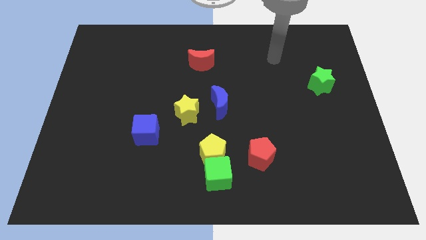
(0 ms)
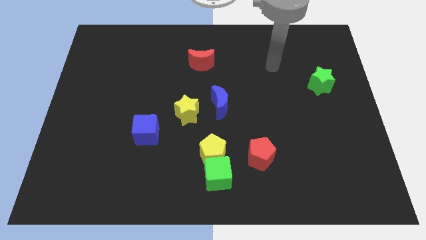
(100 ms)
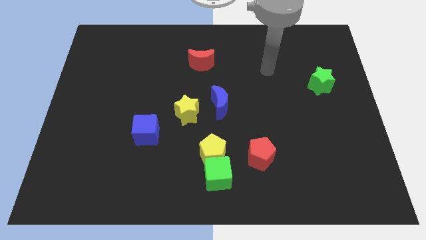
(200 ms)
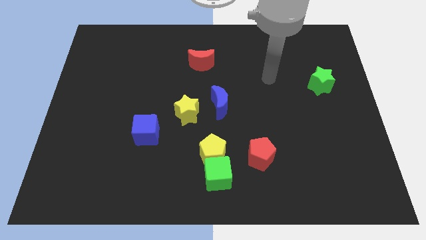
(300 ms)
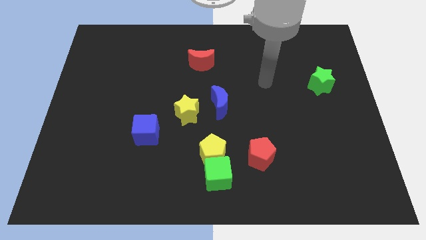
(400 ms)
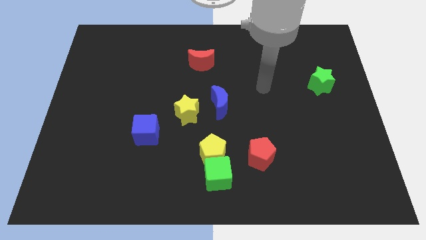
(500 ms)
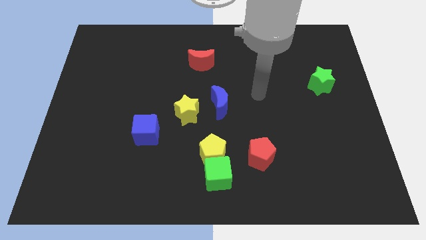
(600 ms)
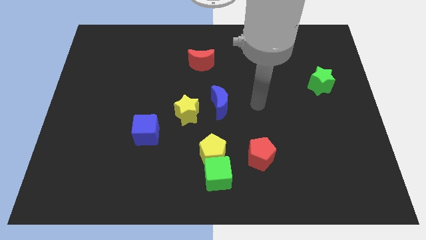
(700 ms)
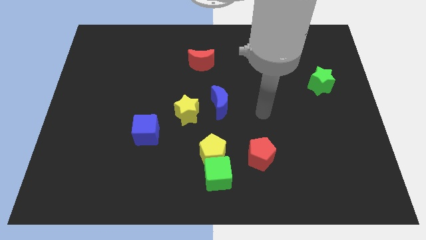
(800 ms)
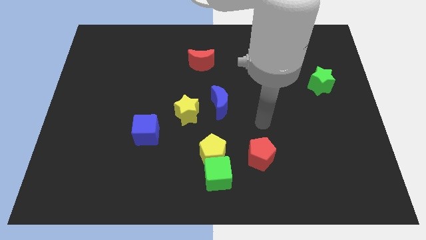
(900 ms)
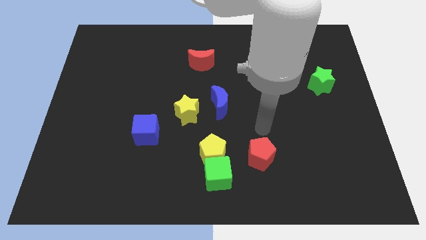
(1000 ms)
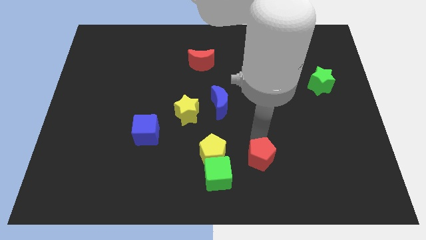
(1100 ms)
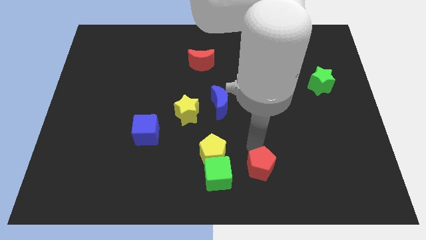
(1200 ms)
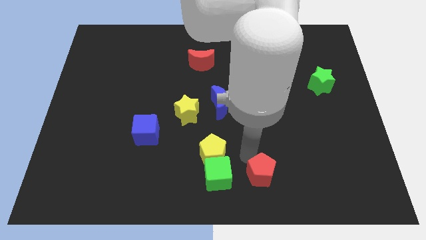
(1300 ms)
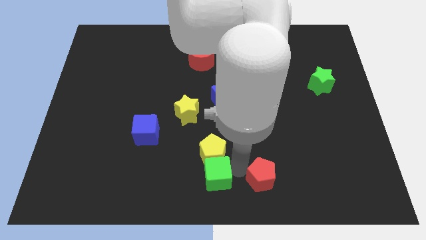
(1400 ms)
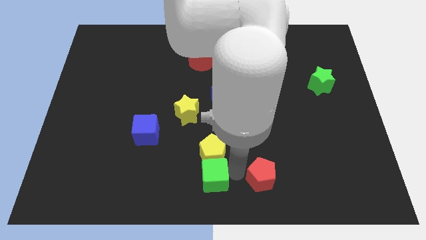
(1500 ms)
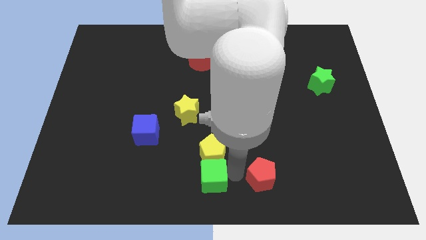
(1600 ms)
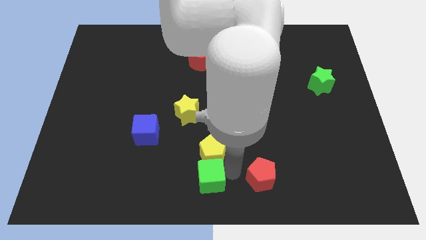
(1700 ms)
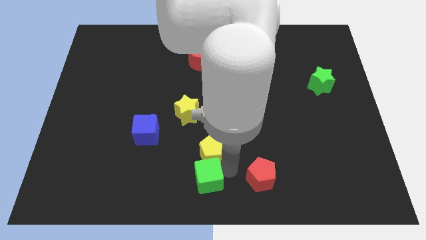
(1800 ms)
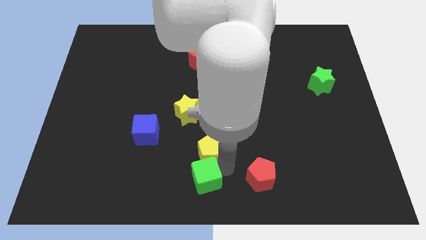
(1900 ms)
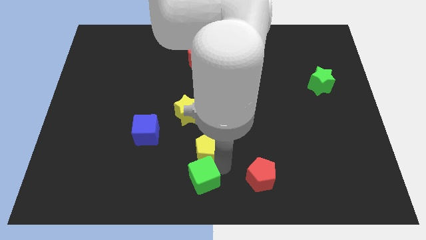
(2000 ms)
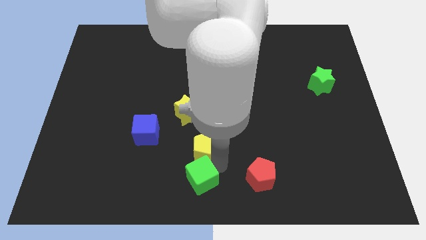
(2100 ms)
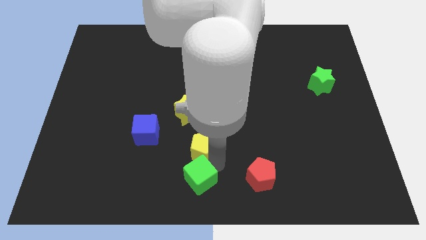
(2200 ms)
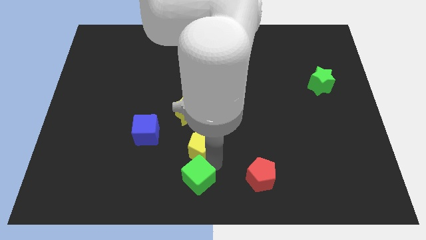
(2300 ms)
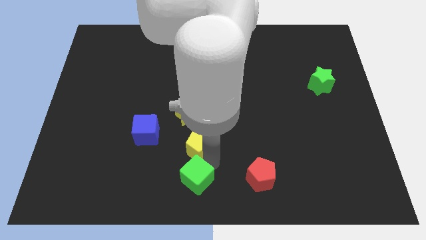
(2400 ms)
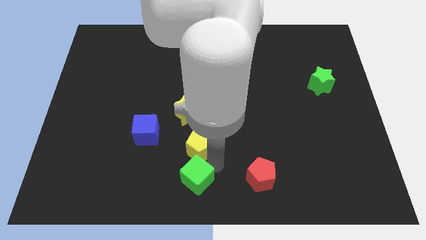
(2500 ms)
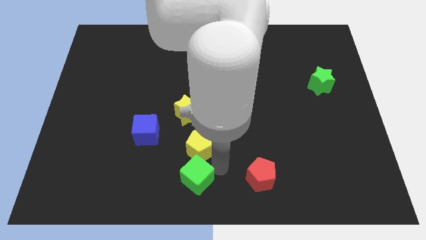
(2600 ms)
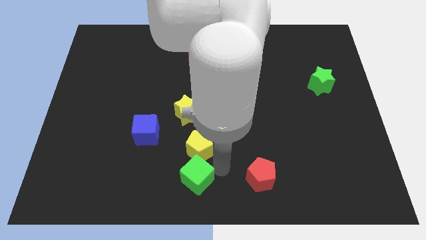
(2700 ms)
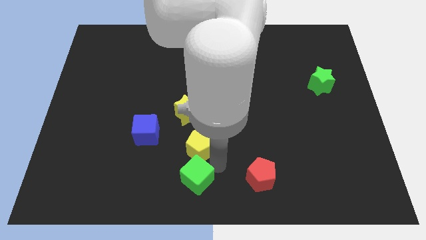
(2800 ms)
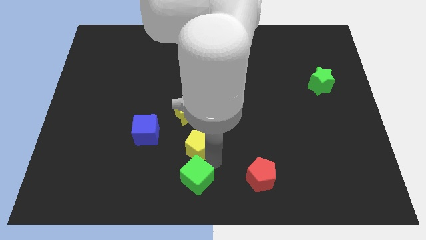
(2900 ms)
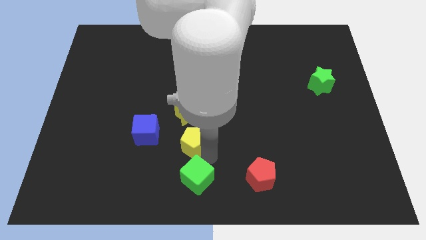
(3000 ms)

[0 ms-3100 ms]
separate the yellow pentagon from the green cube and red pentagon

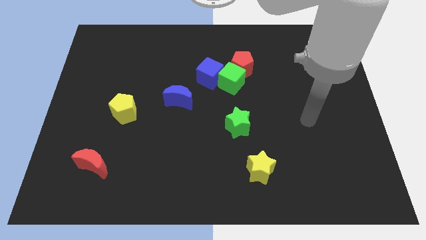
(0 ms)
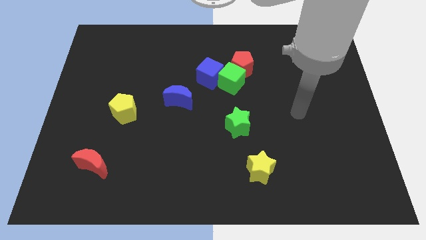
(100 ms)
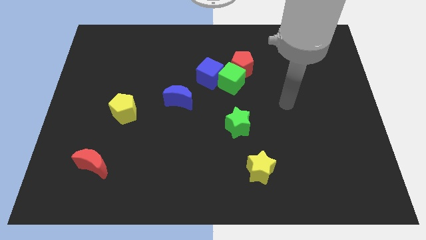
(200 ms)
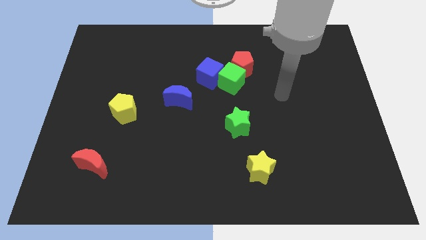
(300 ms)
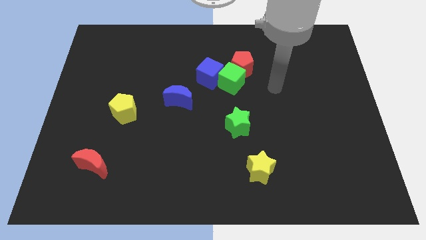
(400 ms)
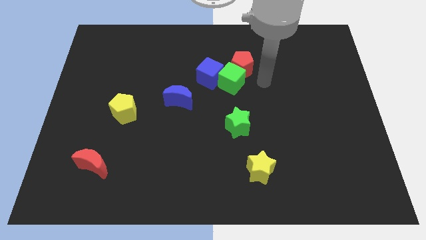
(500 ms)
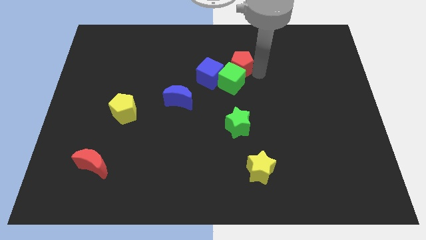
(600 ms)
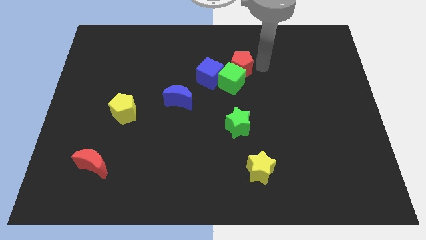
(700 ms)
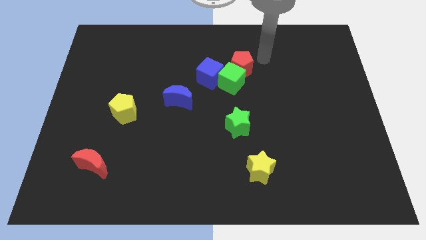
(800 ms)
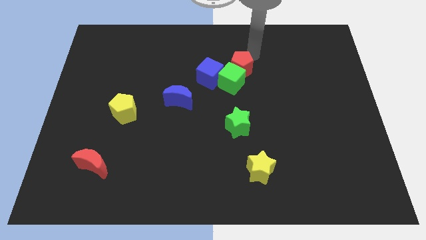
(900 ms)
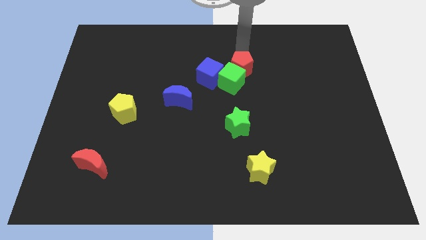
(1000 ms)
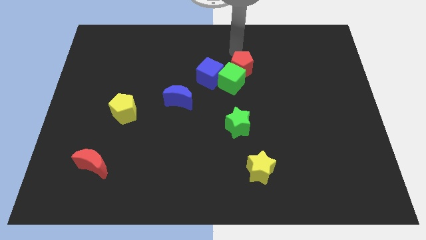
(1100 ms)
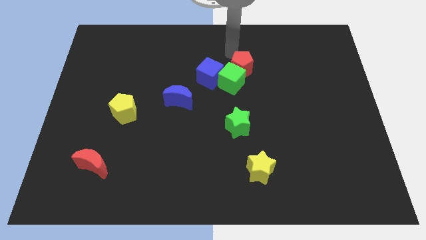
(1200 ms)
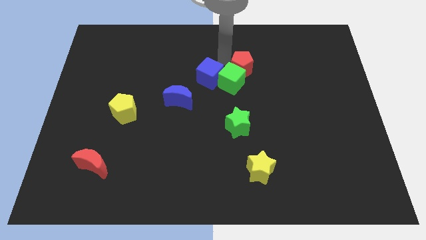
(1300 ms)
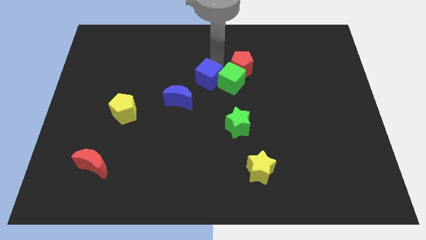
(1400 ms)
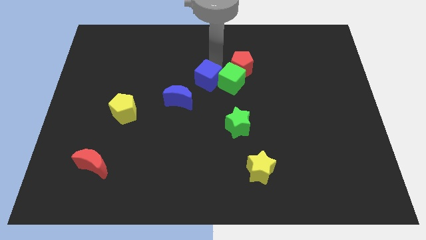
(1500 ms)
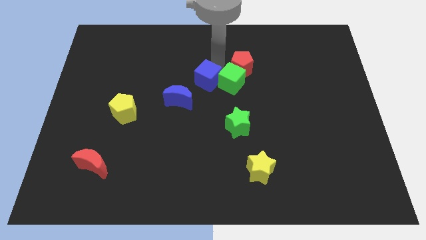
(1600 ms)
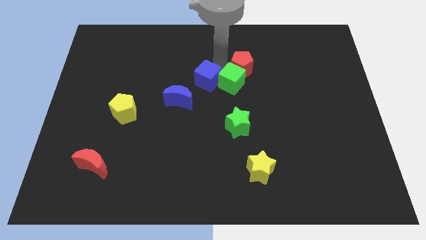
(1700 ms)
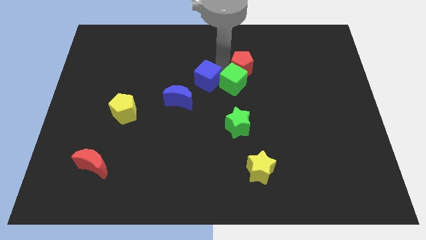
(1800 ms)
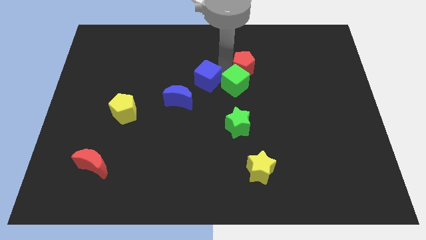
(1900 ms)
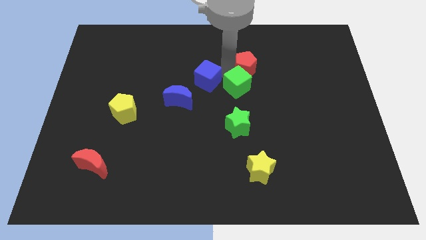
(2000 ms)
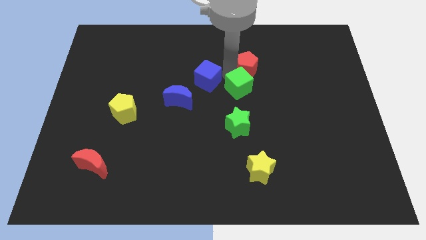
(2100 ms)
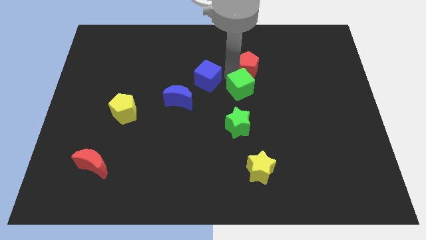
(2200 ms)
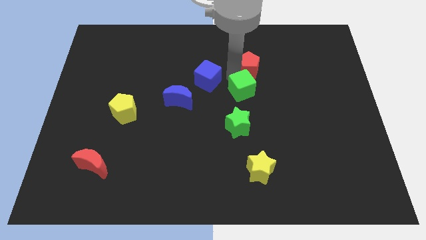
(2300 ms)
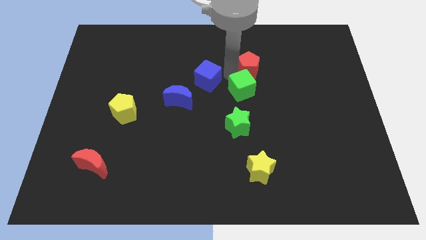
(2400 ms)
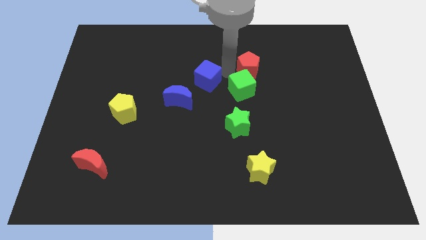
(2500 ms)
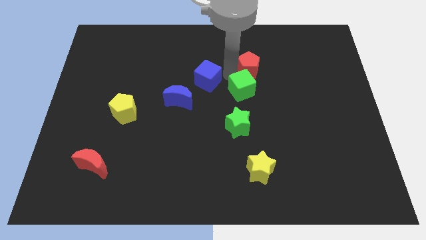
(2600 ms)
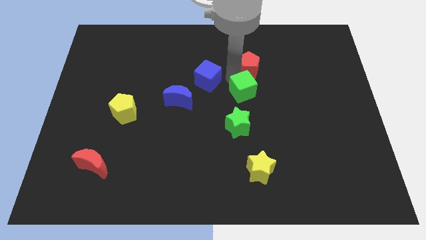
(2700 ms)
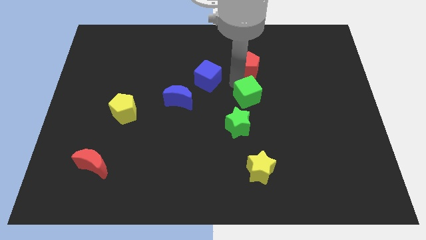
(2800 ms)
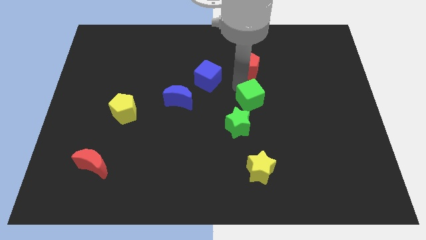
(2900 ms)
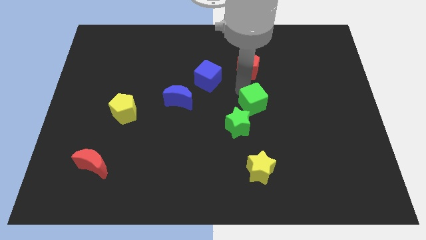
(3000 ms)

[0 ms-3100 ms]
move the green cube away from the red pentagon and blue cube

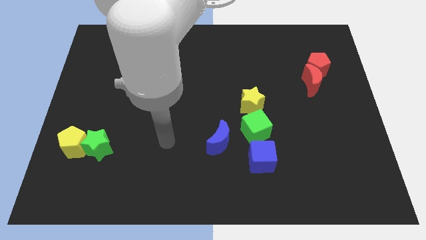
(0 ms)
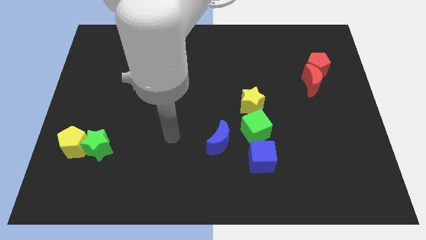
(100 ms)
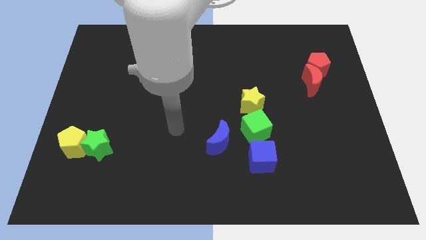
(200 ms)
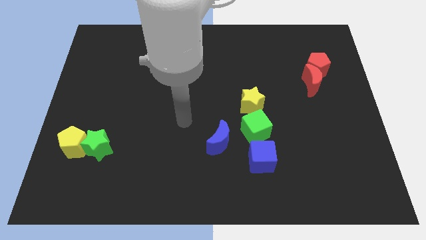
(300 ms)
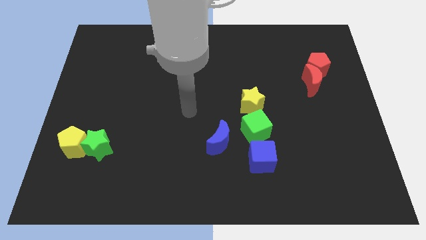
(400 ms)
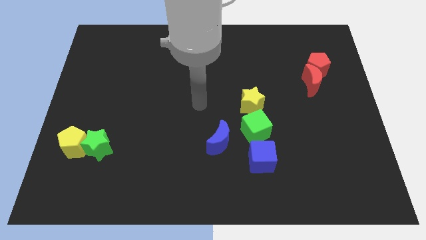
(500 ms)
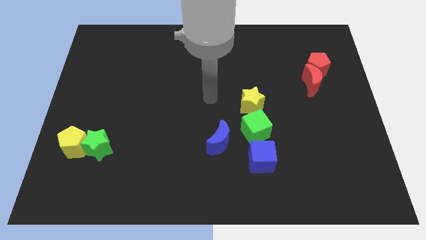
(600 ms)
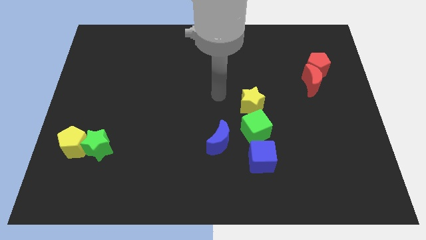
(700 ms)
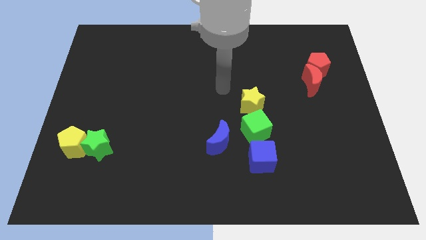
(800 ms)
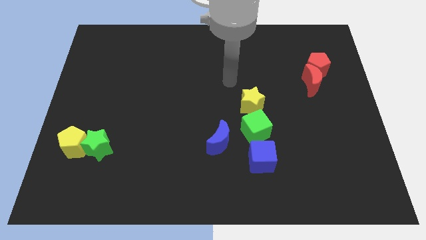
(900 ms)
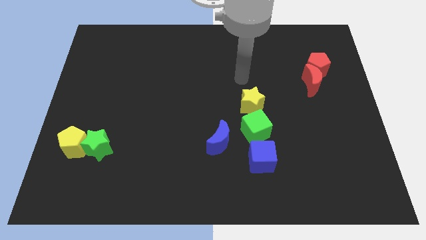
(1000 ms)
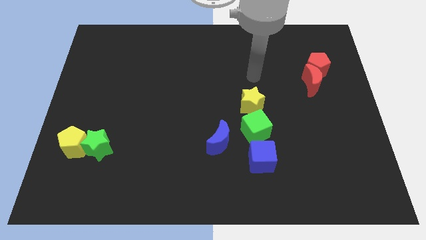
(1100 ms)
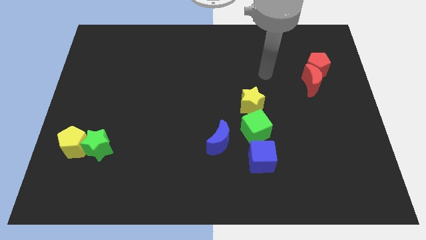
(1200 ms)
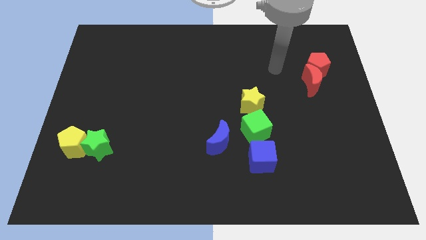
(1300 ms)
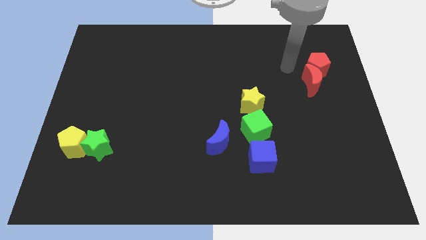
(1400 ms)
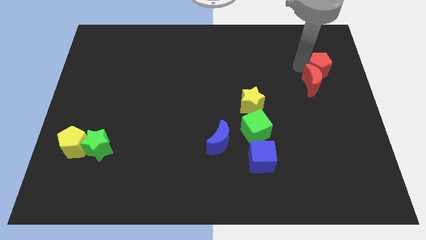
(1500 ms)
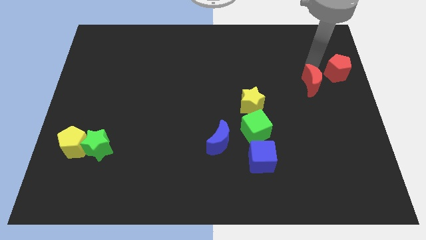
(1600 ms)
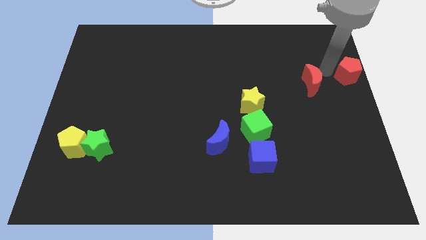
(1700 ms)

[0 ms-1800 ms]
pull the red moon apart from the red pentagon

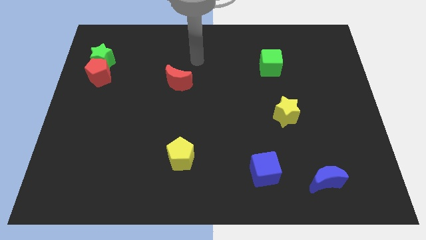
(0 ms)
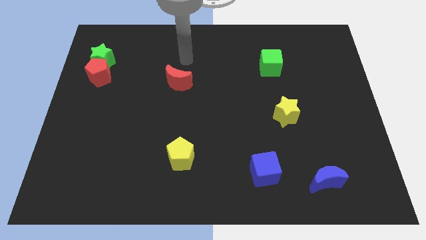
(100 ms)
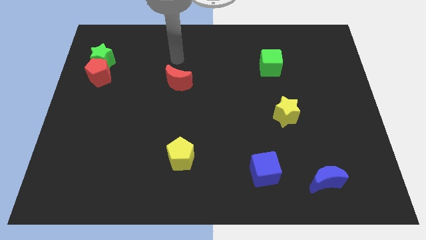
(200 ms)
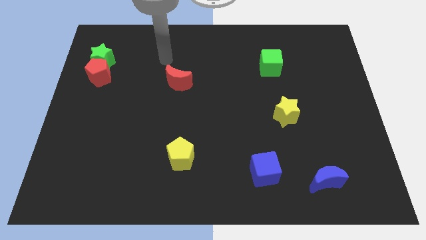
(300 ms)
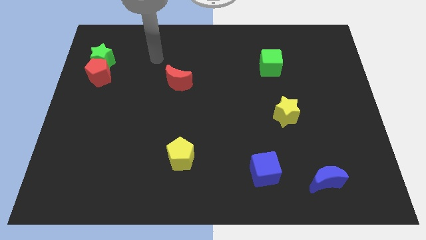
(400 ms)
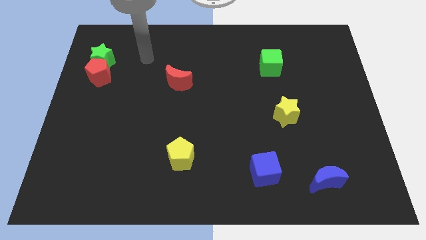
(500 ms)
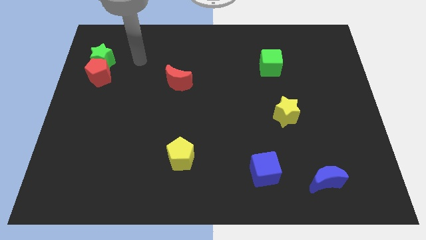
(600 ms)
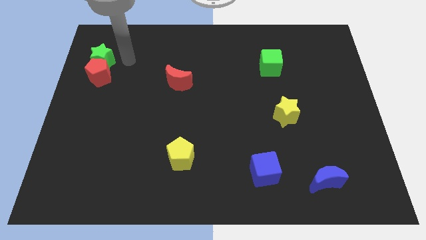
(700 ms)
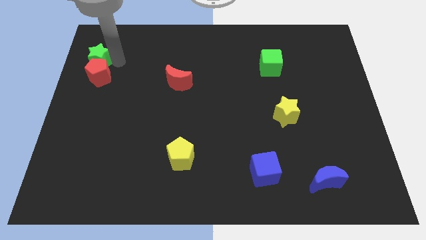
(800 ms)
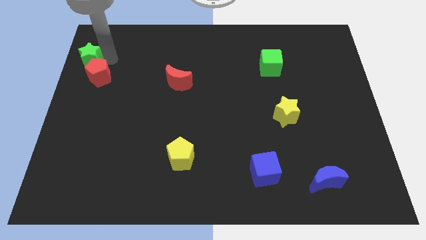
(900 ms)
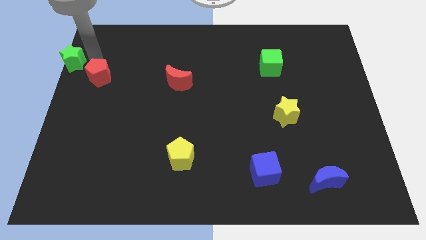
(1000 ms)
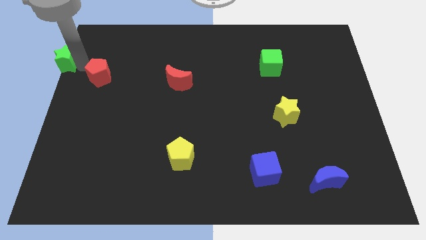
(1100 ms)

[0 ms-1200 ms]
separate the red pentagon from the green star
